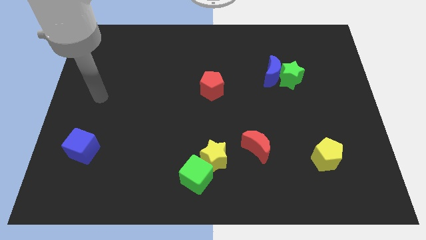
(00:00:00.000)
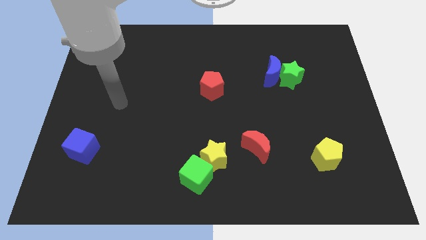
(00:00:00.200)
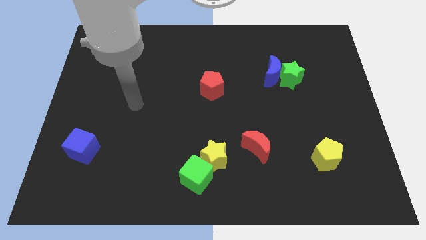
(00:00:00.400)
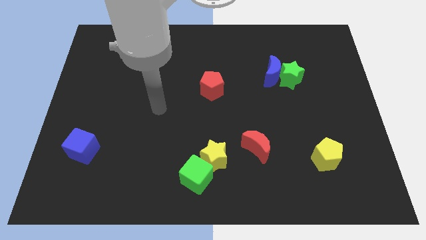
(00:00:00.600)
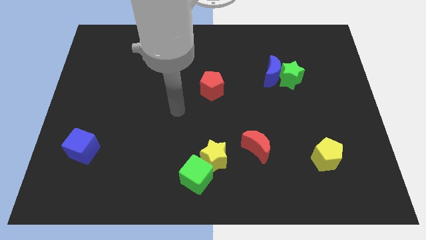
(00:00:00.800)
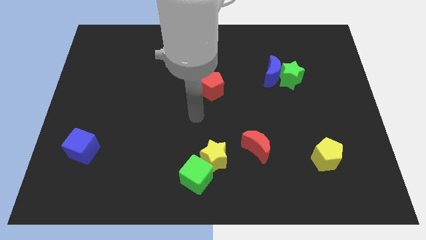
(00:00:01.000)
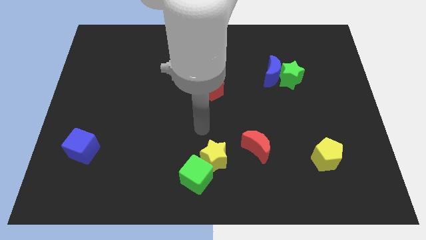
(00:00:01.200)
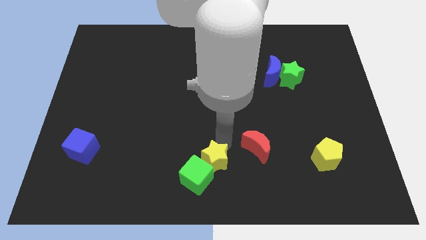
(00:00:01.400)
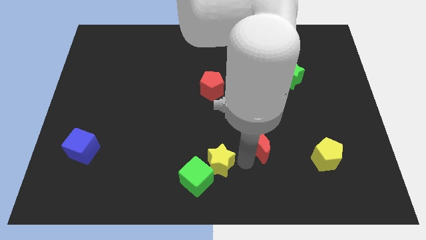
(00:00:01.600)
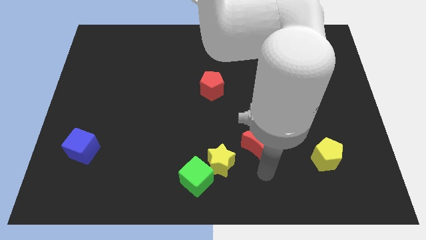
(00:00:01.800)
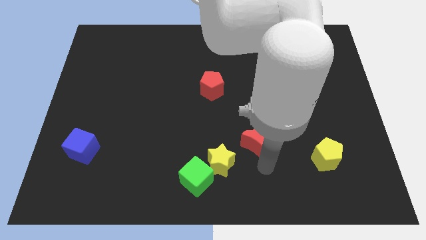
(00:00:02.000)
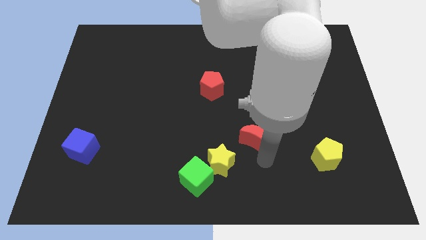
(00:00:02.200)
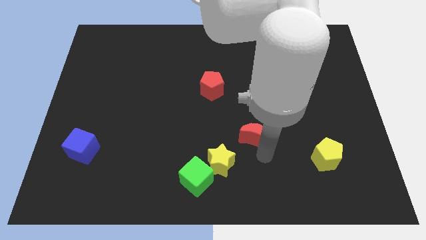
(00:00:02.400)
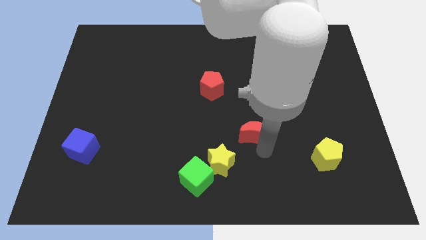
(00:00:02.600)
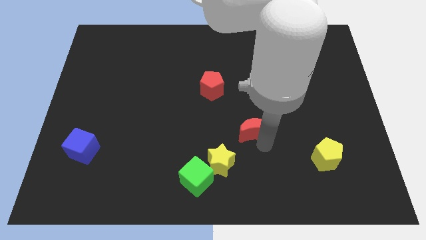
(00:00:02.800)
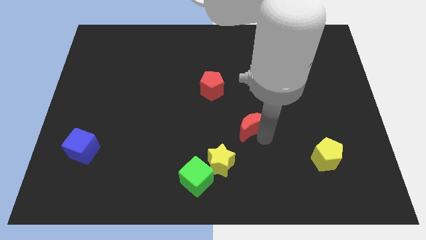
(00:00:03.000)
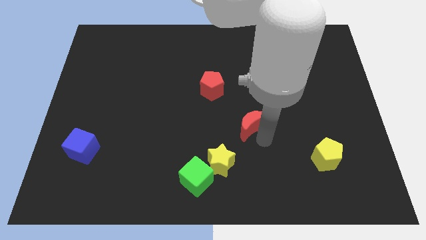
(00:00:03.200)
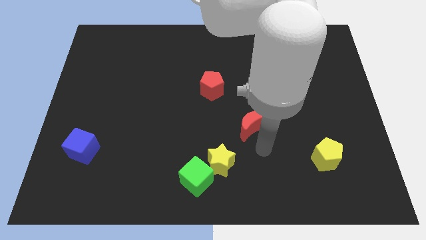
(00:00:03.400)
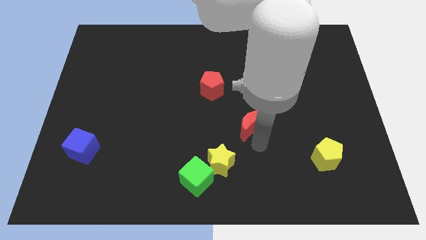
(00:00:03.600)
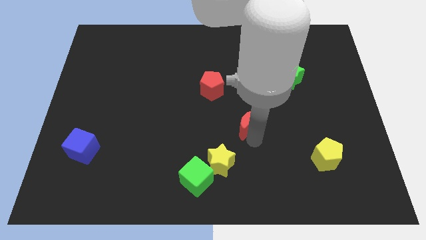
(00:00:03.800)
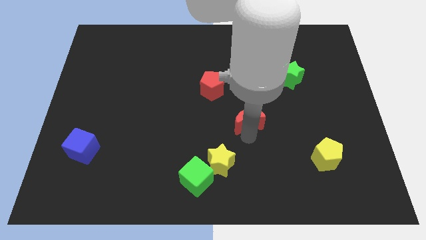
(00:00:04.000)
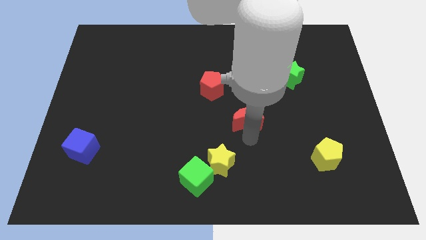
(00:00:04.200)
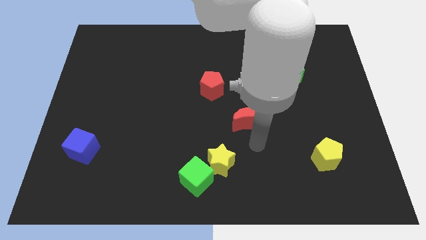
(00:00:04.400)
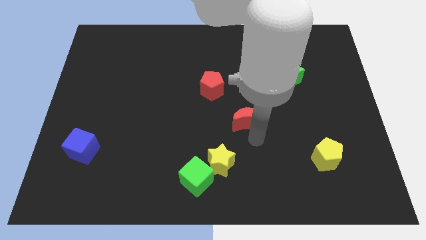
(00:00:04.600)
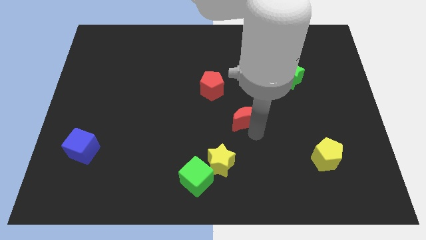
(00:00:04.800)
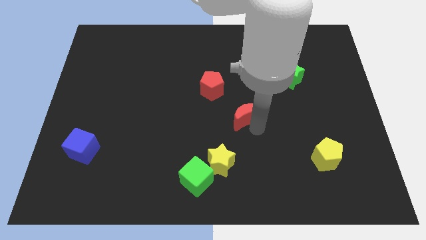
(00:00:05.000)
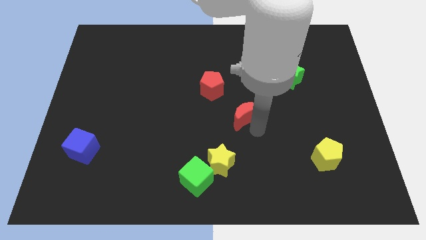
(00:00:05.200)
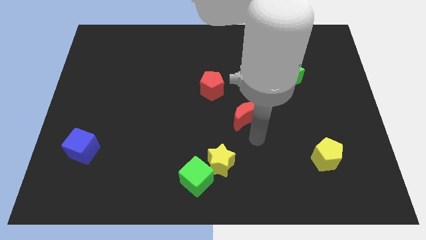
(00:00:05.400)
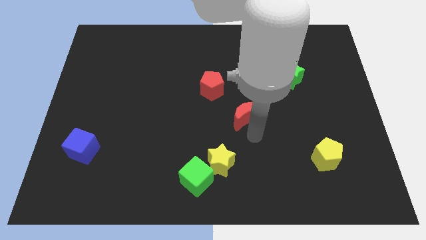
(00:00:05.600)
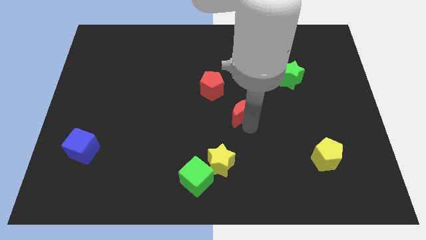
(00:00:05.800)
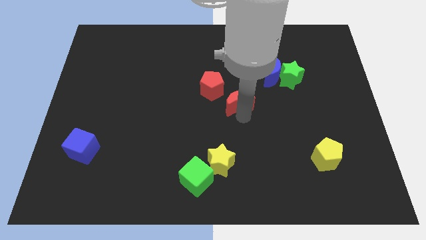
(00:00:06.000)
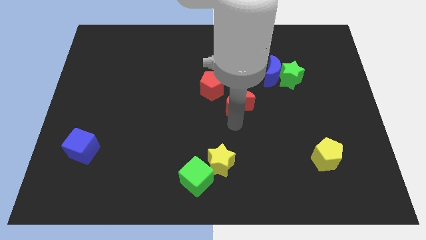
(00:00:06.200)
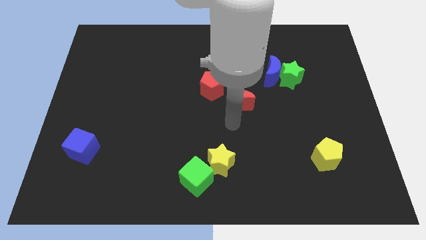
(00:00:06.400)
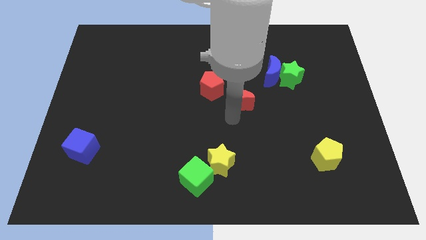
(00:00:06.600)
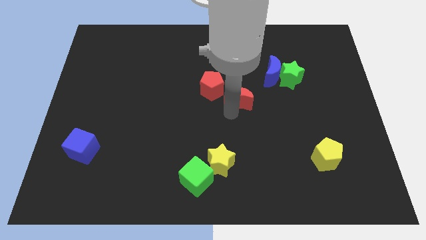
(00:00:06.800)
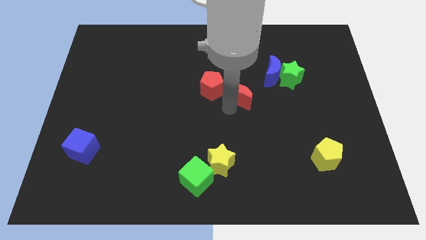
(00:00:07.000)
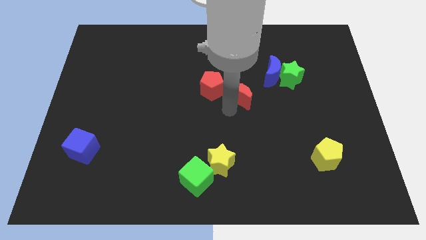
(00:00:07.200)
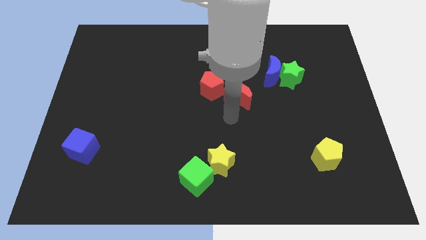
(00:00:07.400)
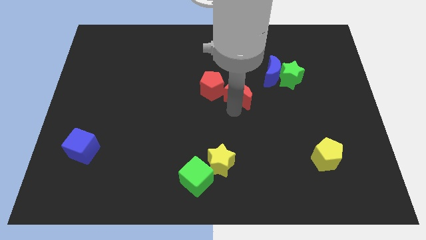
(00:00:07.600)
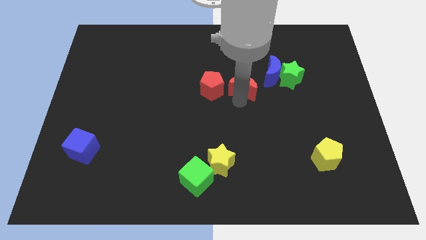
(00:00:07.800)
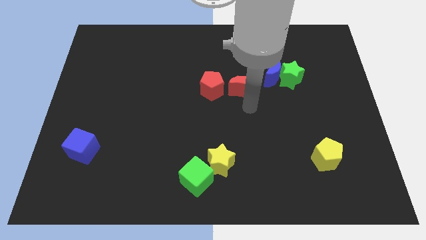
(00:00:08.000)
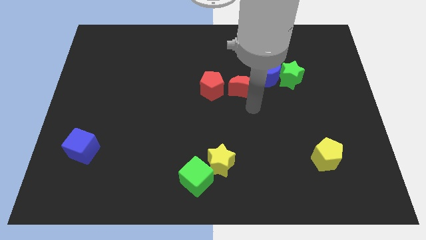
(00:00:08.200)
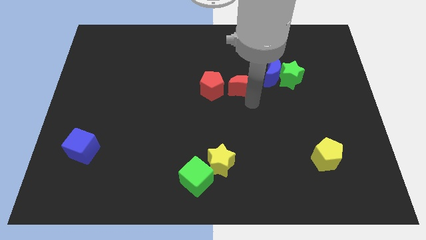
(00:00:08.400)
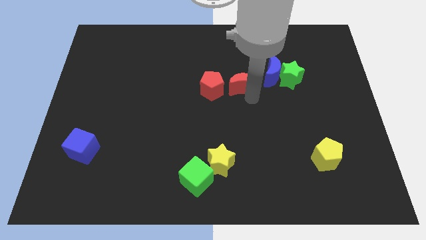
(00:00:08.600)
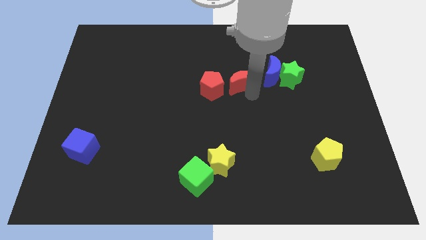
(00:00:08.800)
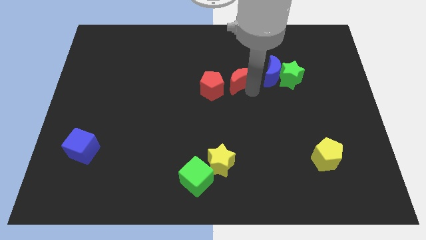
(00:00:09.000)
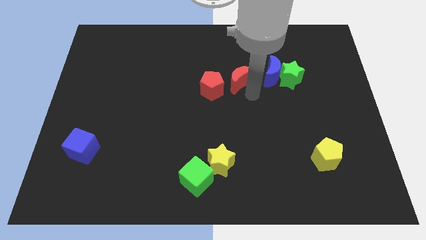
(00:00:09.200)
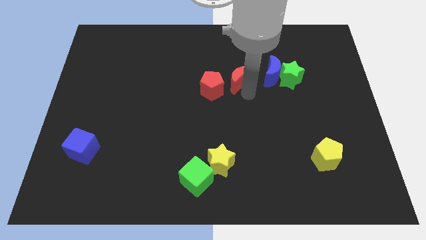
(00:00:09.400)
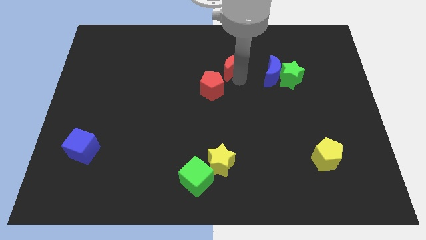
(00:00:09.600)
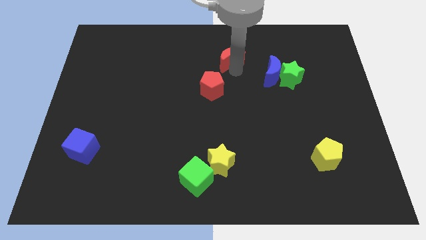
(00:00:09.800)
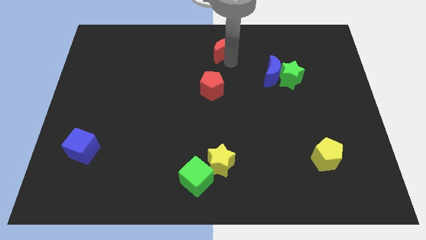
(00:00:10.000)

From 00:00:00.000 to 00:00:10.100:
move the red moon to the top side
